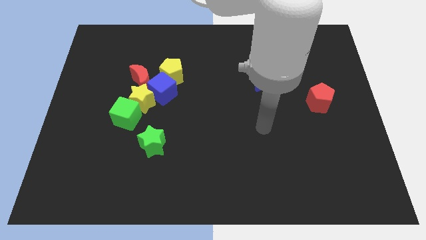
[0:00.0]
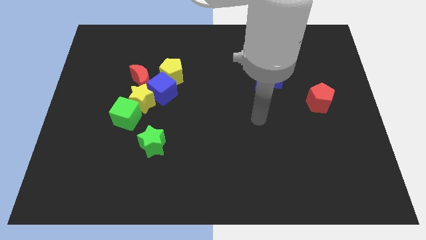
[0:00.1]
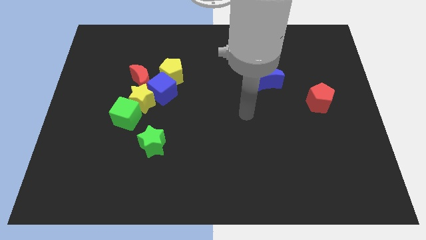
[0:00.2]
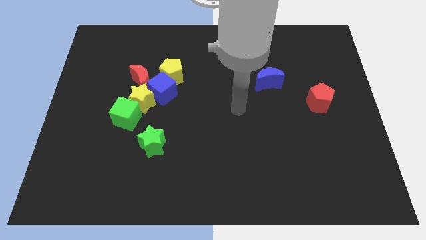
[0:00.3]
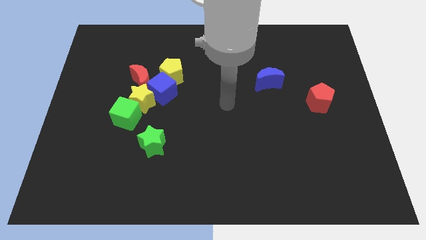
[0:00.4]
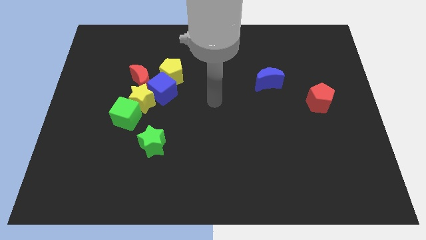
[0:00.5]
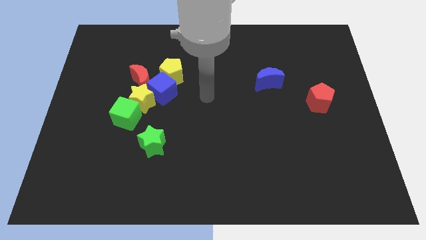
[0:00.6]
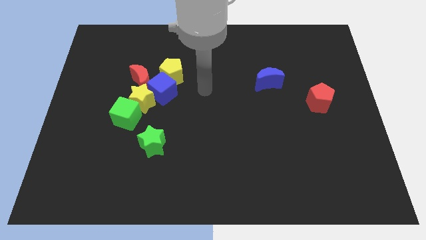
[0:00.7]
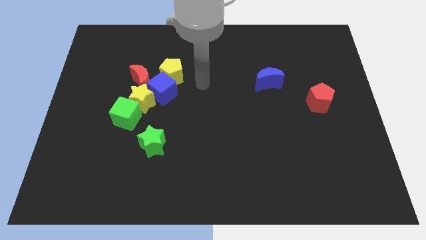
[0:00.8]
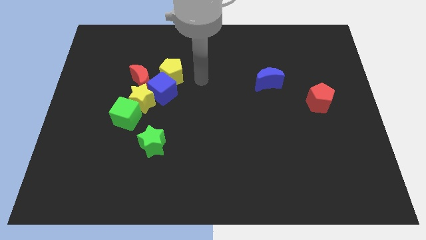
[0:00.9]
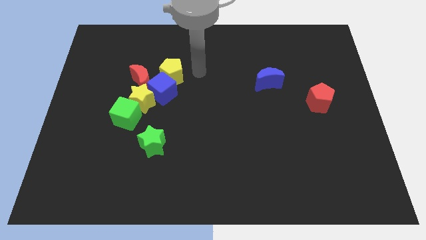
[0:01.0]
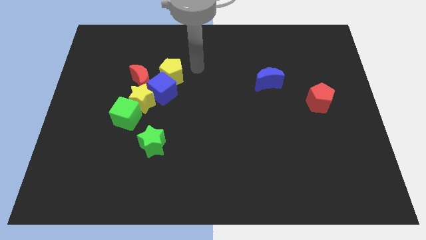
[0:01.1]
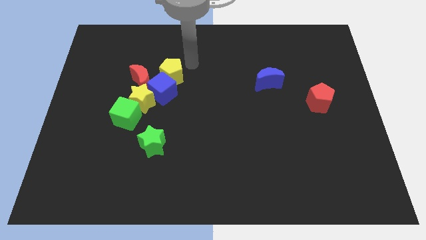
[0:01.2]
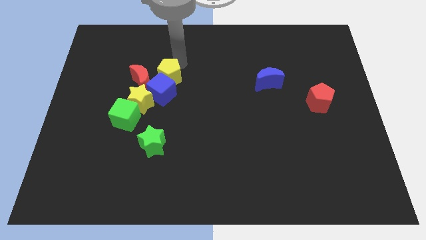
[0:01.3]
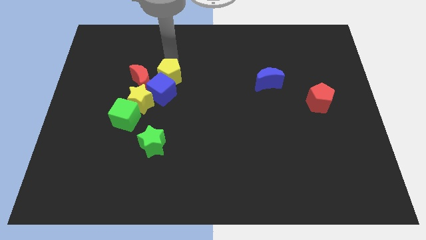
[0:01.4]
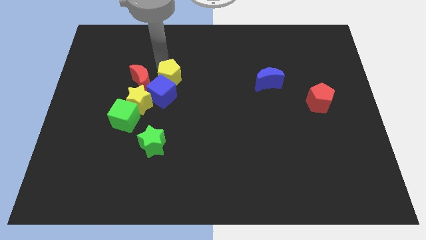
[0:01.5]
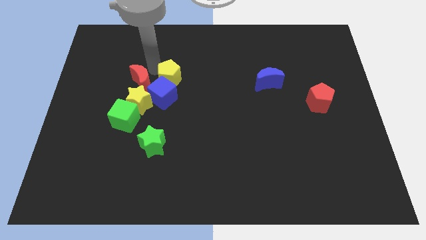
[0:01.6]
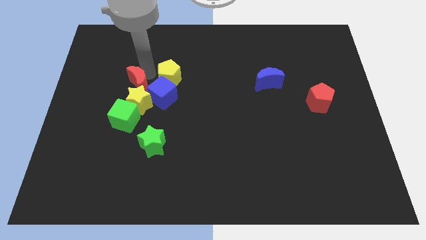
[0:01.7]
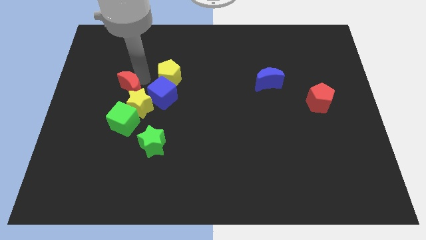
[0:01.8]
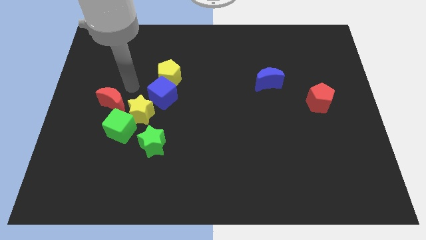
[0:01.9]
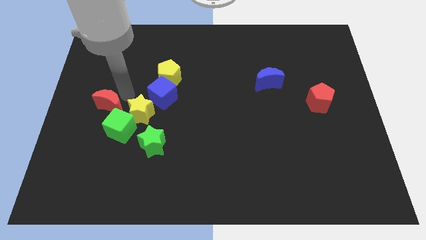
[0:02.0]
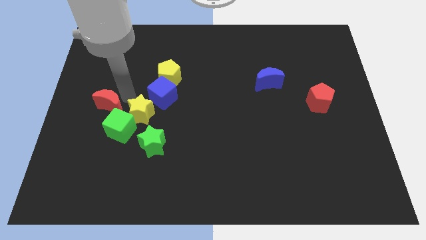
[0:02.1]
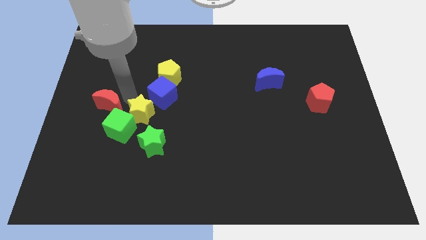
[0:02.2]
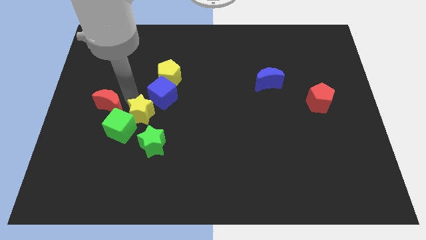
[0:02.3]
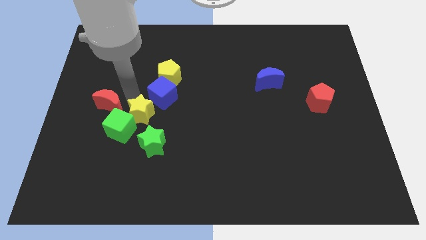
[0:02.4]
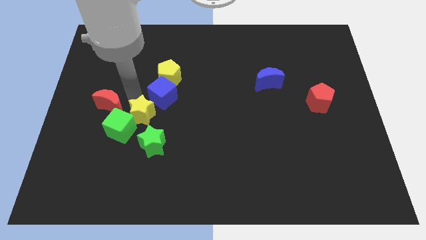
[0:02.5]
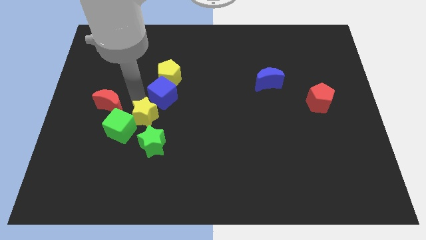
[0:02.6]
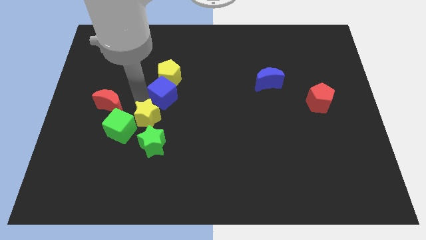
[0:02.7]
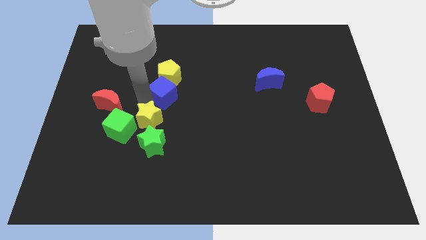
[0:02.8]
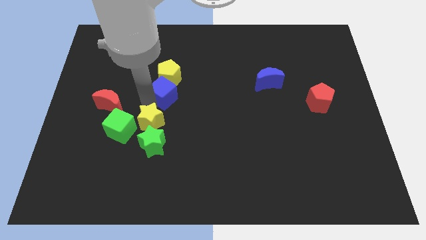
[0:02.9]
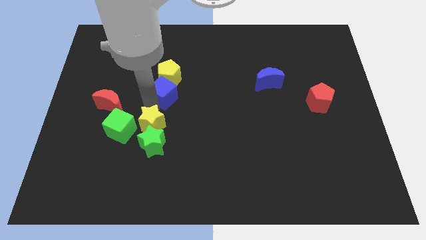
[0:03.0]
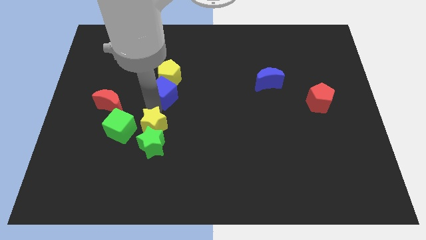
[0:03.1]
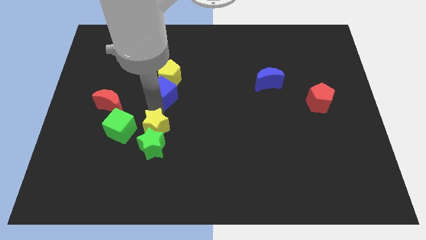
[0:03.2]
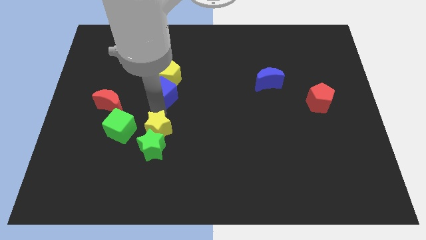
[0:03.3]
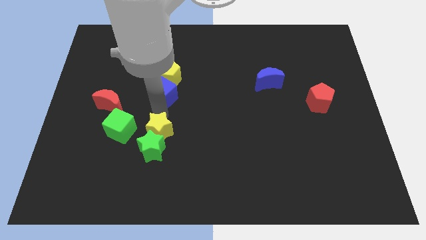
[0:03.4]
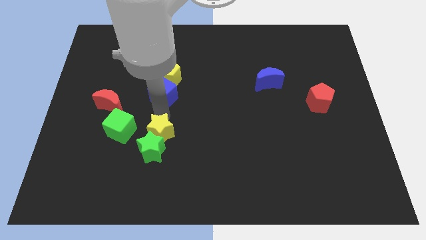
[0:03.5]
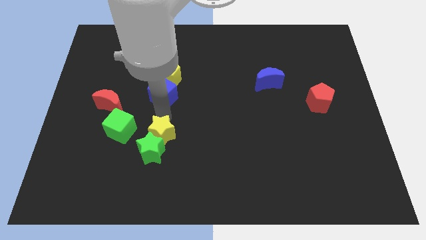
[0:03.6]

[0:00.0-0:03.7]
separate the yellow star from the blue cube, green cube, and red moon

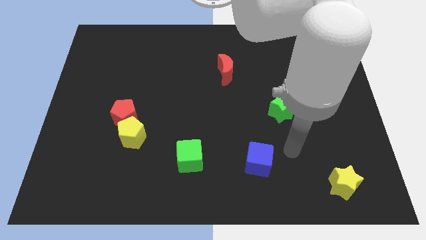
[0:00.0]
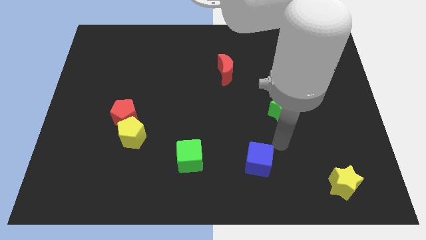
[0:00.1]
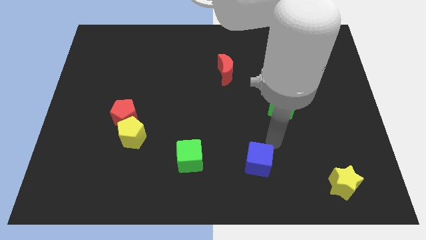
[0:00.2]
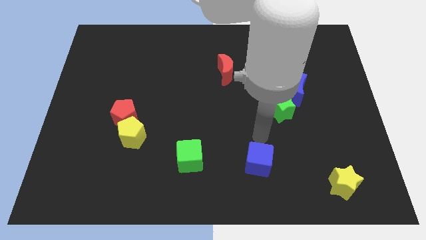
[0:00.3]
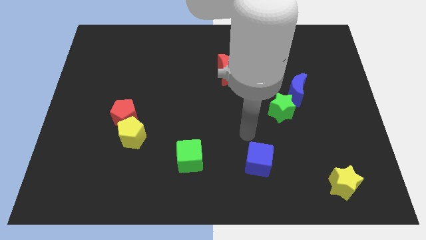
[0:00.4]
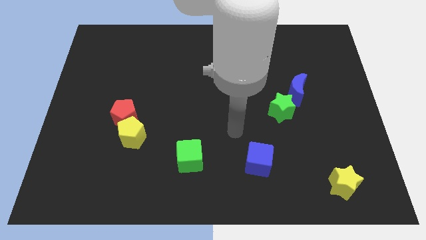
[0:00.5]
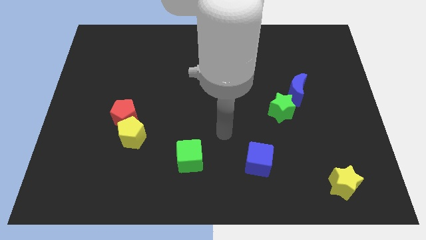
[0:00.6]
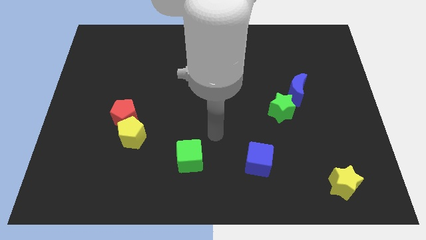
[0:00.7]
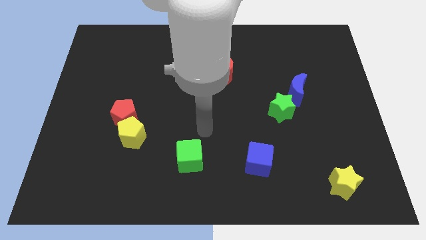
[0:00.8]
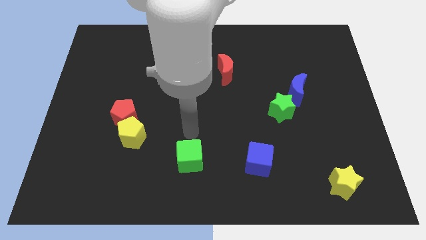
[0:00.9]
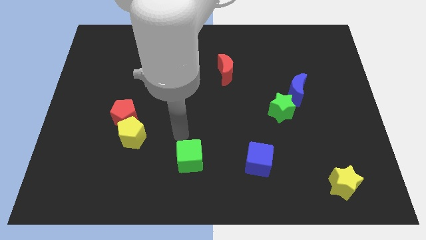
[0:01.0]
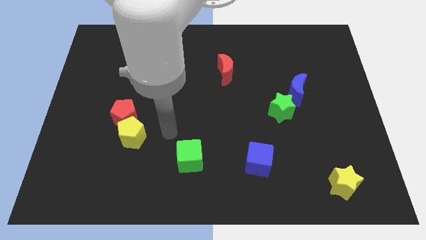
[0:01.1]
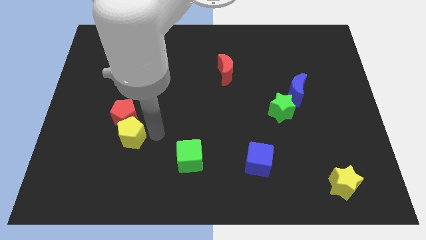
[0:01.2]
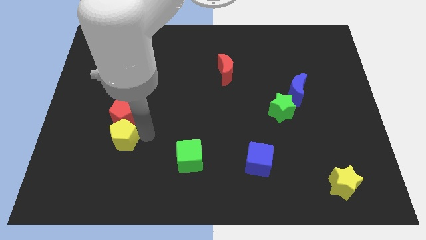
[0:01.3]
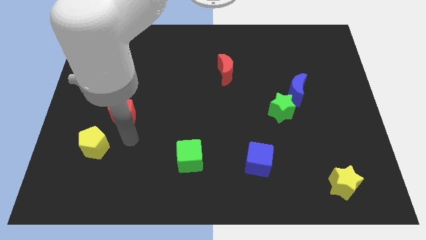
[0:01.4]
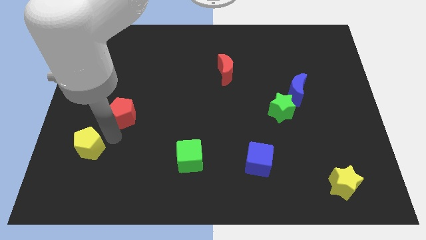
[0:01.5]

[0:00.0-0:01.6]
separate the red pentagon from the yellow pentagon

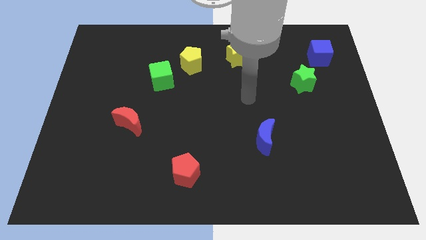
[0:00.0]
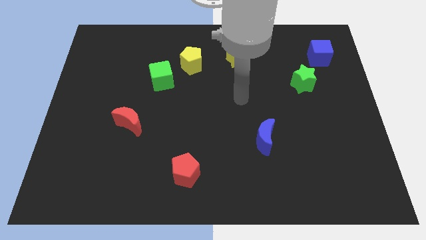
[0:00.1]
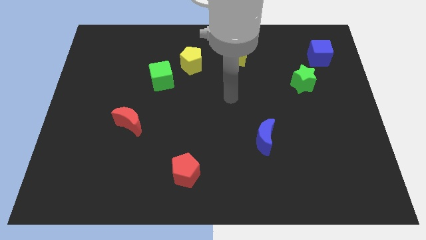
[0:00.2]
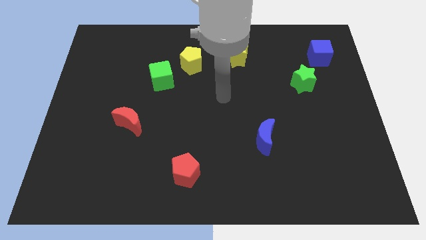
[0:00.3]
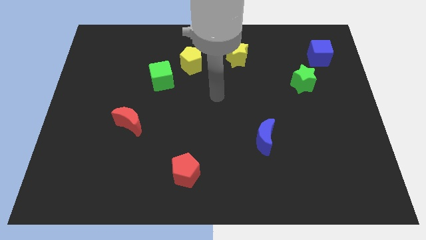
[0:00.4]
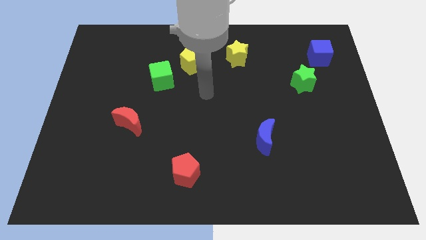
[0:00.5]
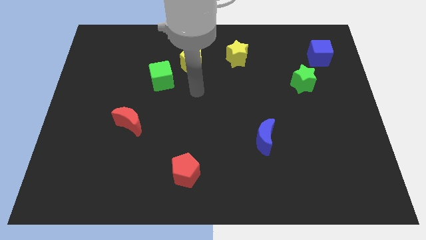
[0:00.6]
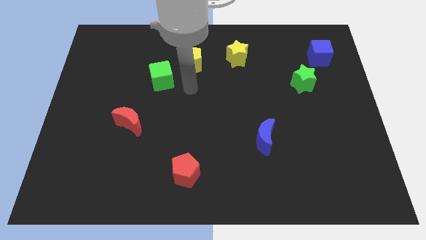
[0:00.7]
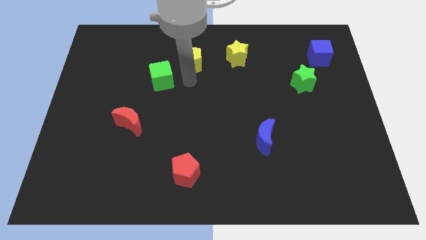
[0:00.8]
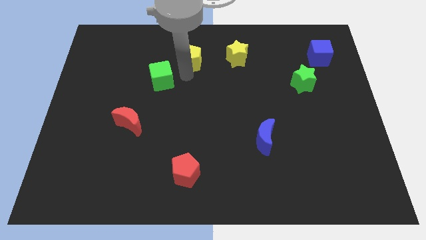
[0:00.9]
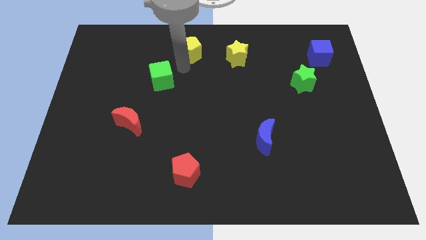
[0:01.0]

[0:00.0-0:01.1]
move the green cube away from the yellow pentagon

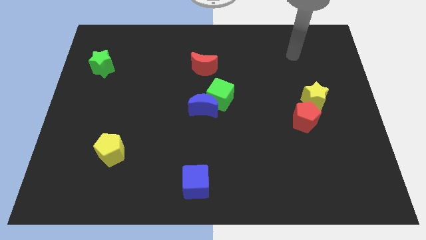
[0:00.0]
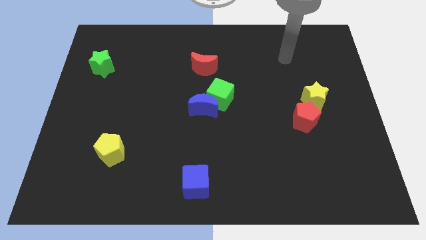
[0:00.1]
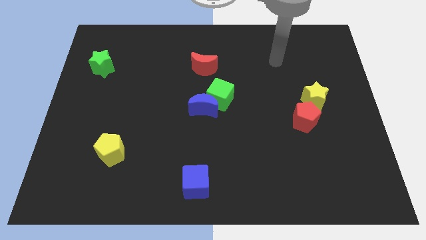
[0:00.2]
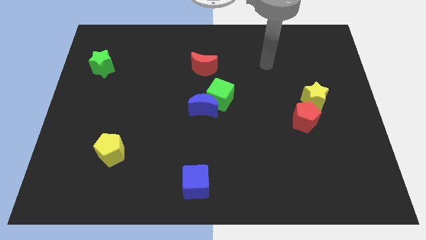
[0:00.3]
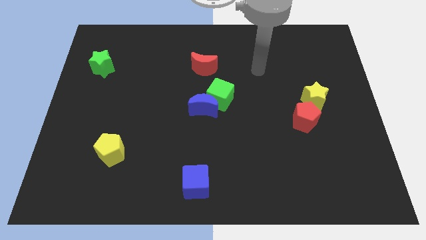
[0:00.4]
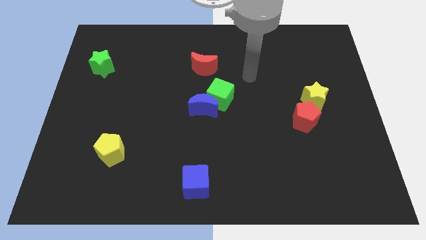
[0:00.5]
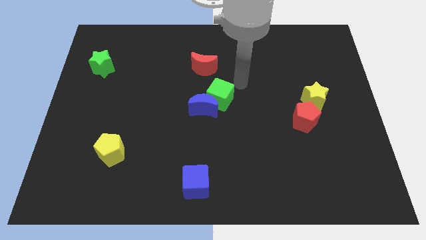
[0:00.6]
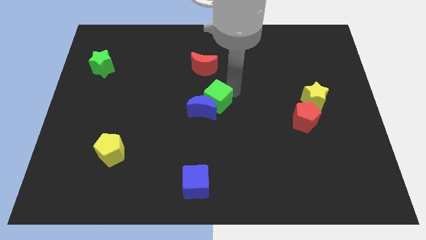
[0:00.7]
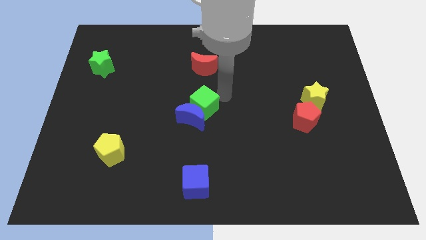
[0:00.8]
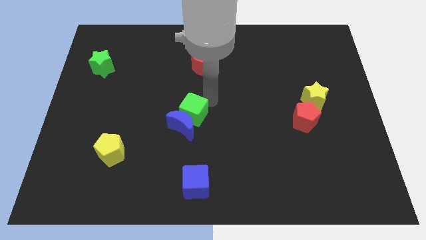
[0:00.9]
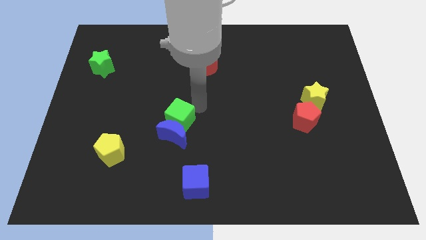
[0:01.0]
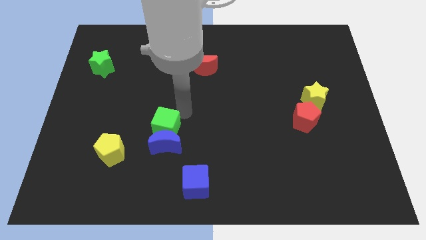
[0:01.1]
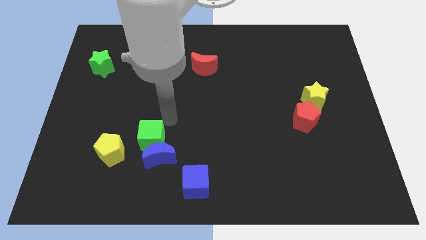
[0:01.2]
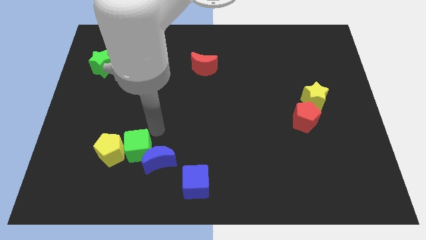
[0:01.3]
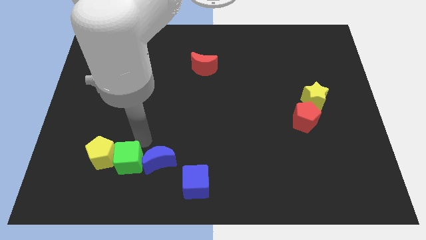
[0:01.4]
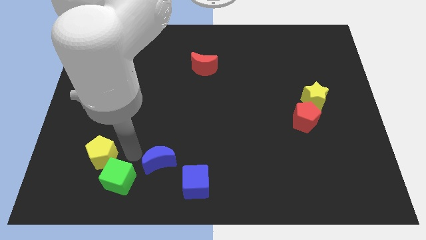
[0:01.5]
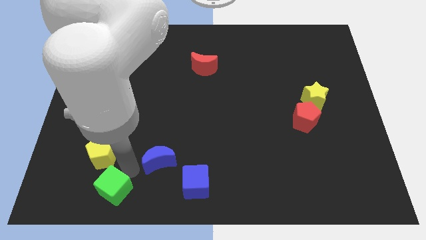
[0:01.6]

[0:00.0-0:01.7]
pull the blue moon apart from the green cube

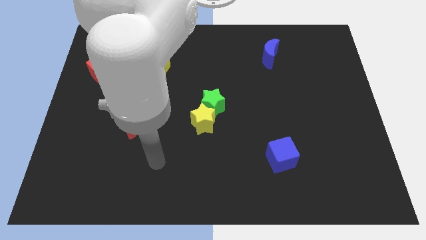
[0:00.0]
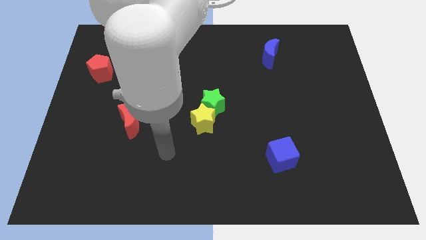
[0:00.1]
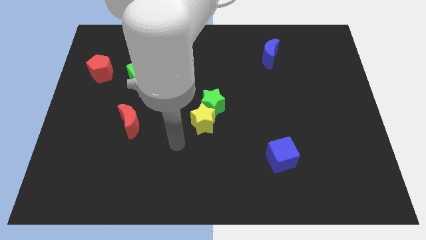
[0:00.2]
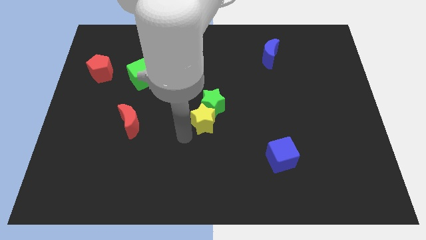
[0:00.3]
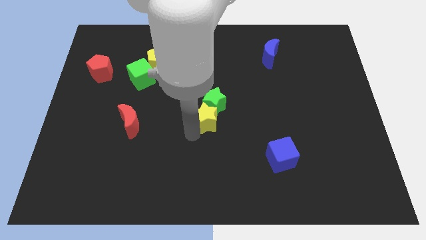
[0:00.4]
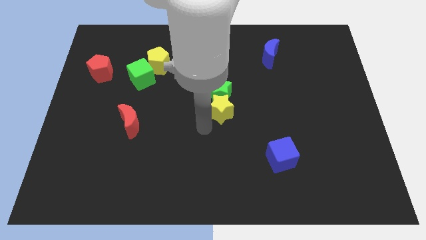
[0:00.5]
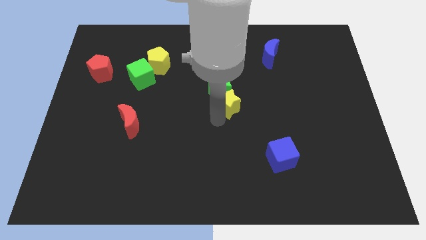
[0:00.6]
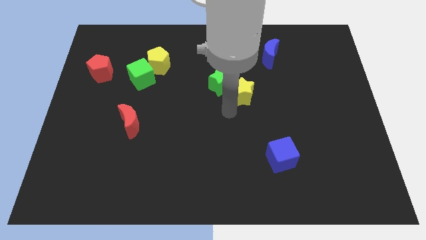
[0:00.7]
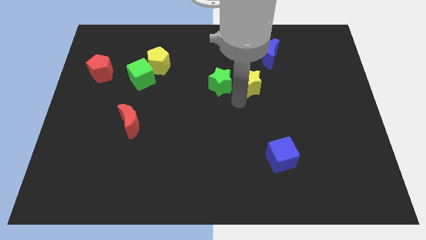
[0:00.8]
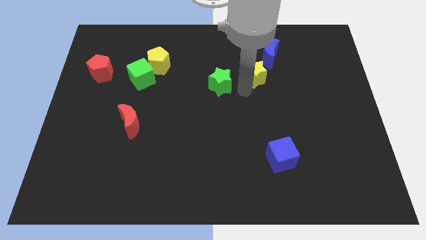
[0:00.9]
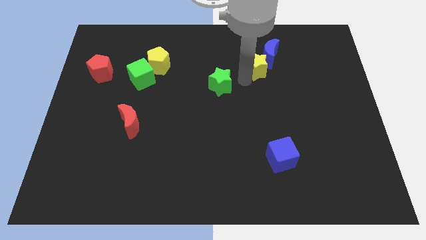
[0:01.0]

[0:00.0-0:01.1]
move the green star away from the yellow star

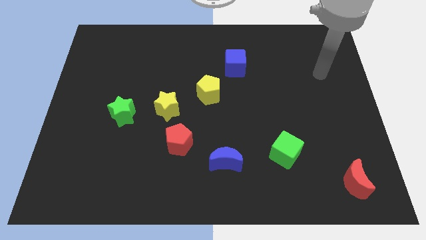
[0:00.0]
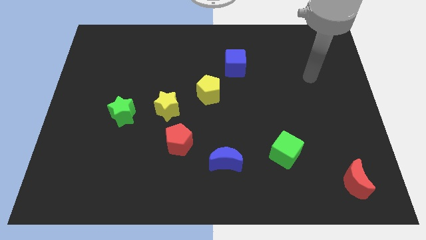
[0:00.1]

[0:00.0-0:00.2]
separate the red pentagon from the yellow star
